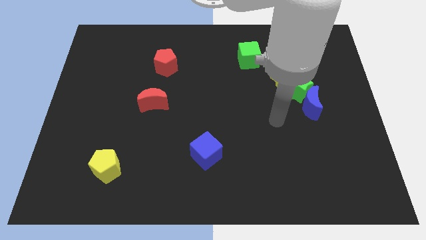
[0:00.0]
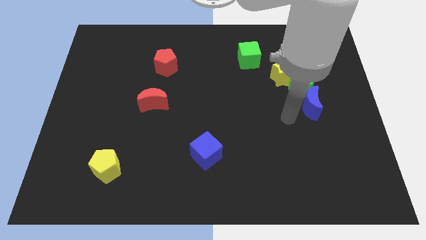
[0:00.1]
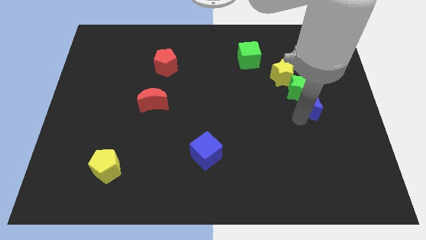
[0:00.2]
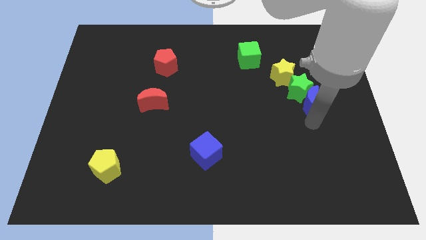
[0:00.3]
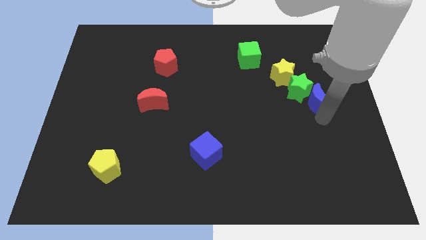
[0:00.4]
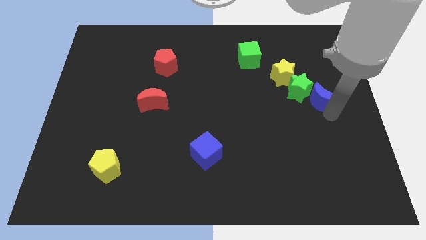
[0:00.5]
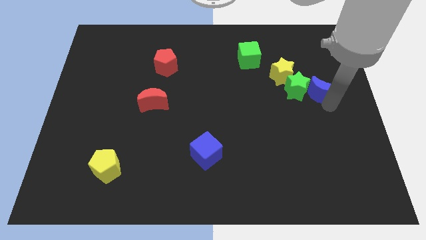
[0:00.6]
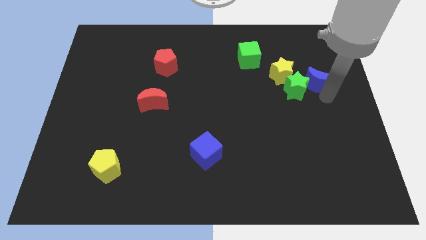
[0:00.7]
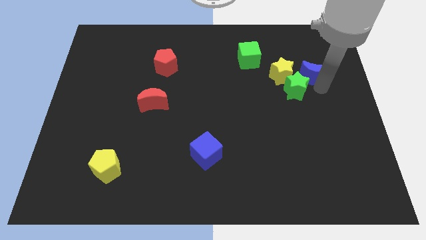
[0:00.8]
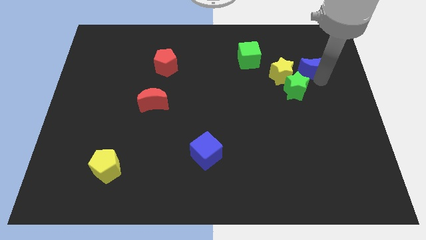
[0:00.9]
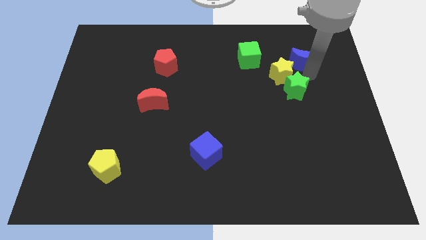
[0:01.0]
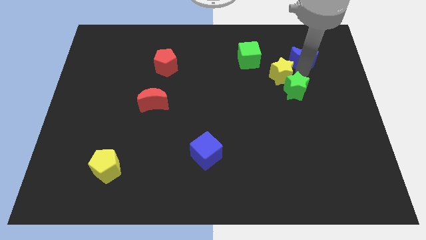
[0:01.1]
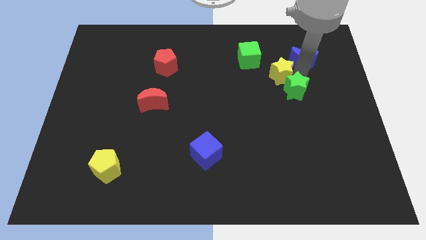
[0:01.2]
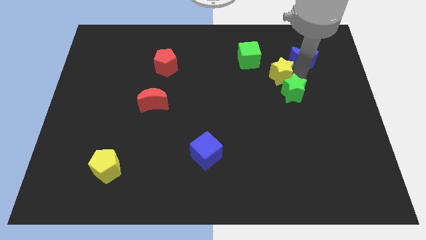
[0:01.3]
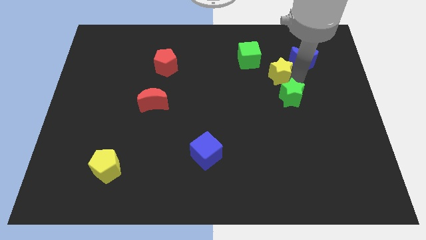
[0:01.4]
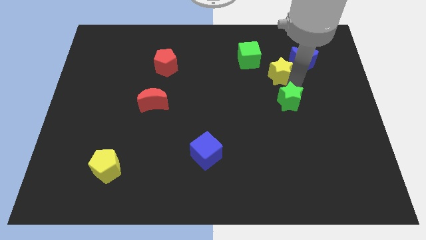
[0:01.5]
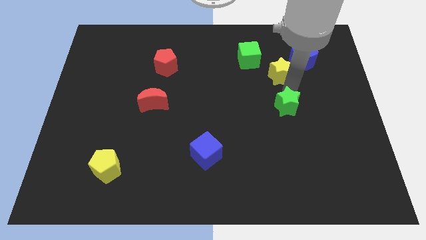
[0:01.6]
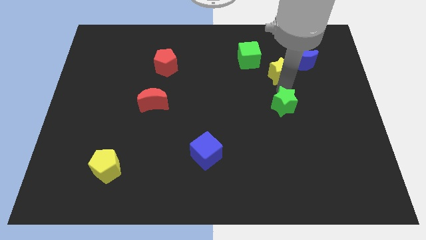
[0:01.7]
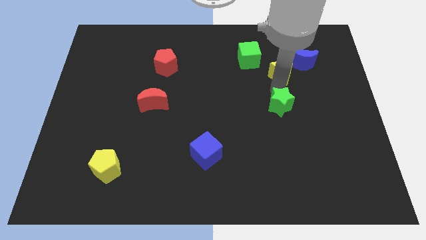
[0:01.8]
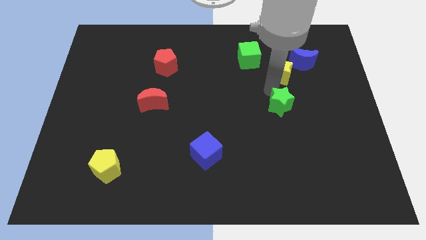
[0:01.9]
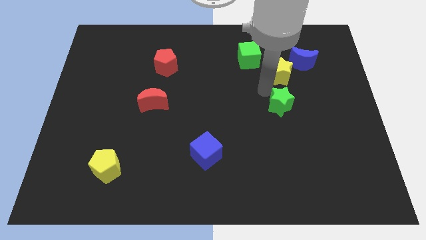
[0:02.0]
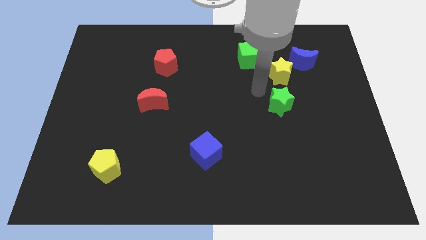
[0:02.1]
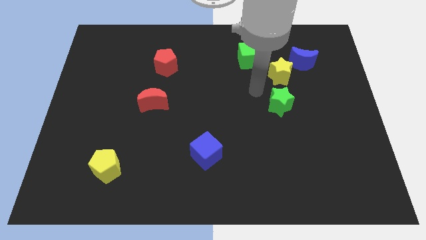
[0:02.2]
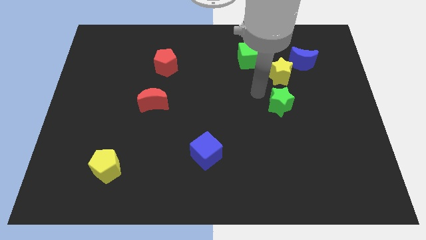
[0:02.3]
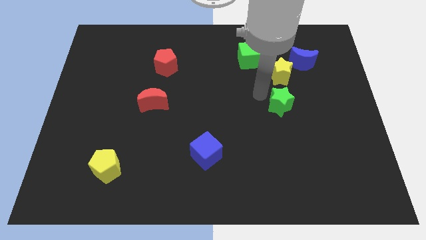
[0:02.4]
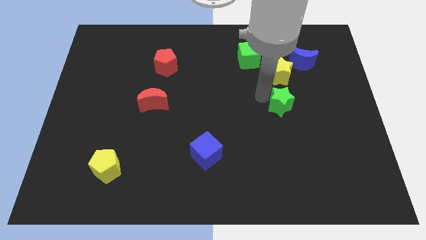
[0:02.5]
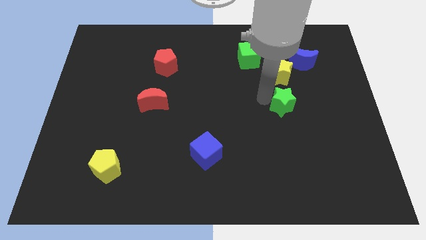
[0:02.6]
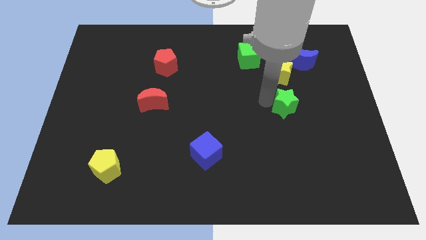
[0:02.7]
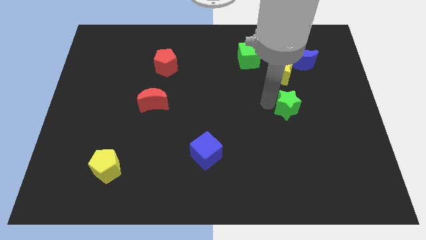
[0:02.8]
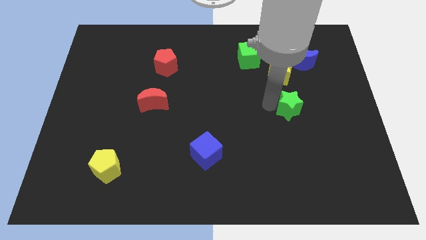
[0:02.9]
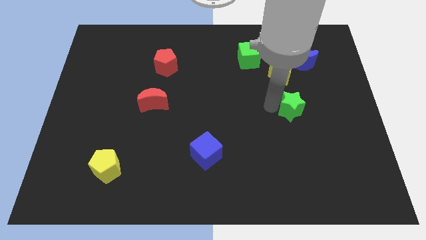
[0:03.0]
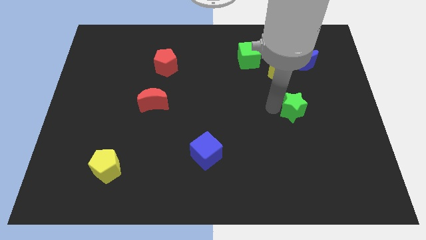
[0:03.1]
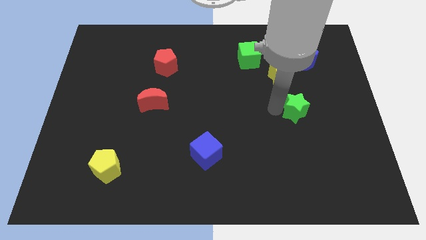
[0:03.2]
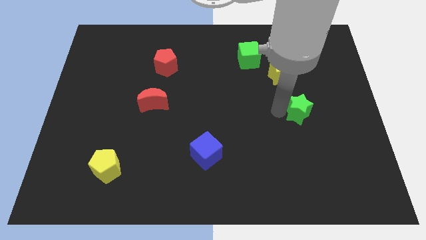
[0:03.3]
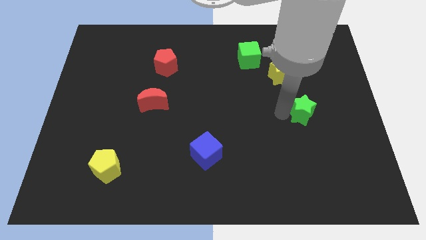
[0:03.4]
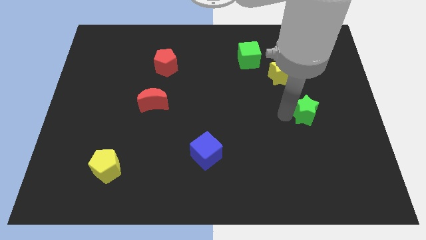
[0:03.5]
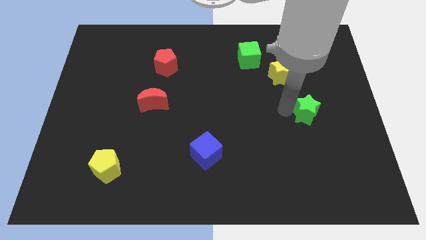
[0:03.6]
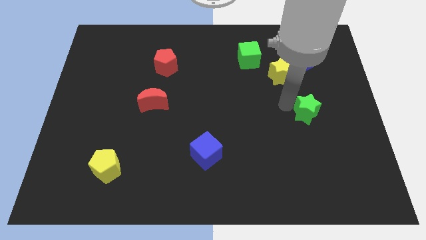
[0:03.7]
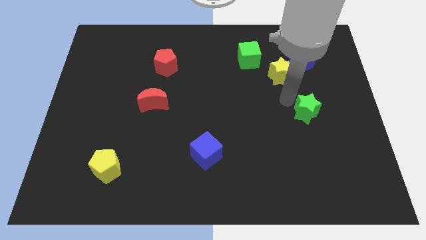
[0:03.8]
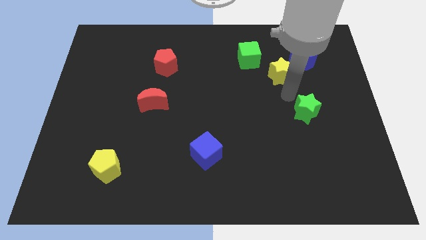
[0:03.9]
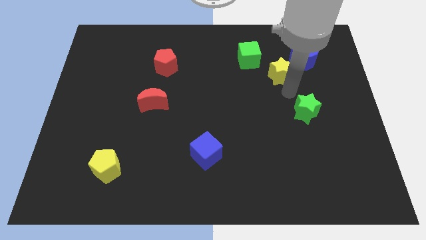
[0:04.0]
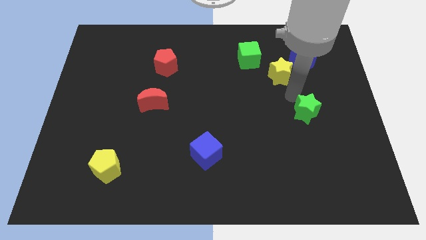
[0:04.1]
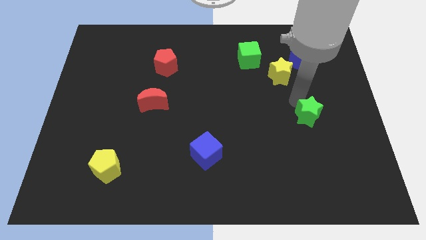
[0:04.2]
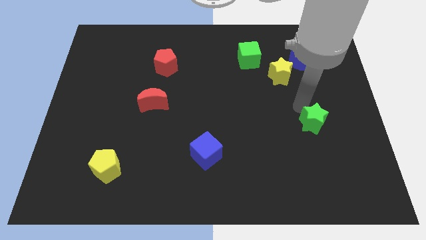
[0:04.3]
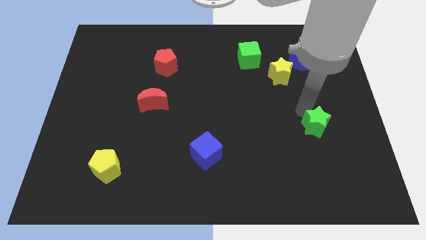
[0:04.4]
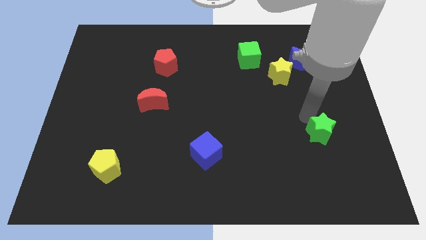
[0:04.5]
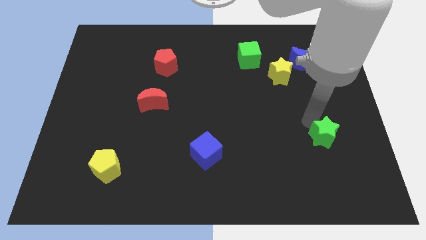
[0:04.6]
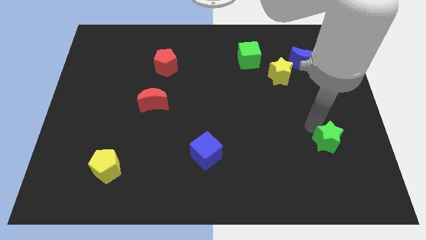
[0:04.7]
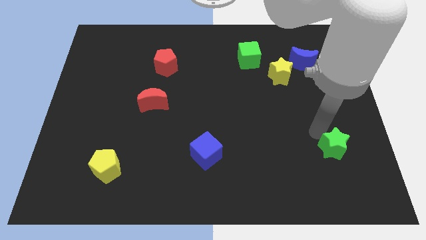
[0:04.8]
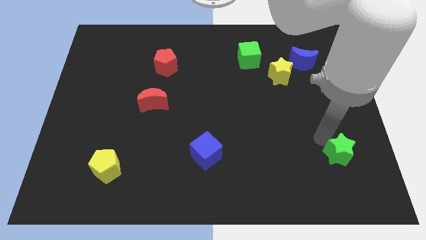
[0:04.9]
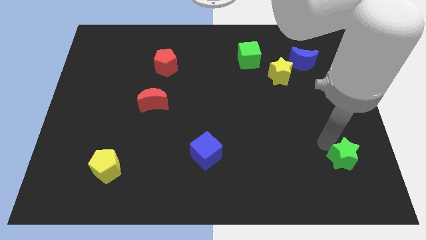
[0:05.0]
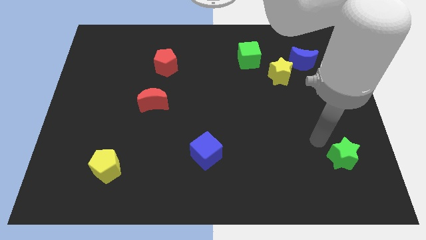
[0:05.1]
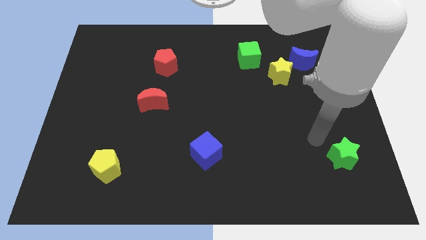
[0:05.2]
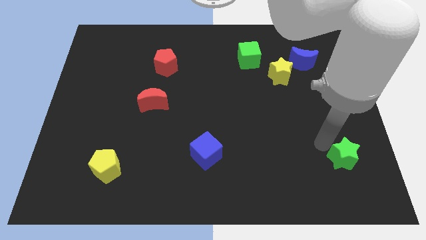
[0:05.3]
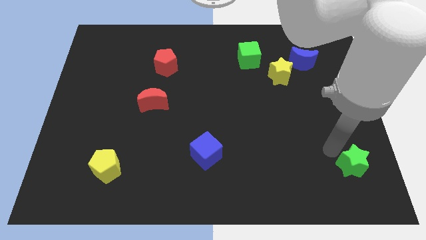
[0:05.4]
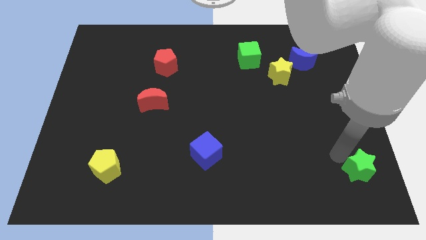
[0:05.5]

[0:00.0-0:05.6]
move the green star to the bottom right

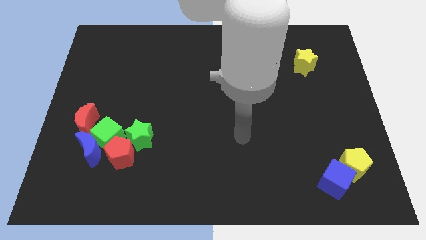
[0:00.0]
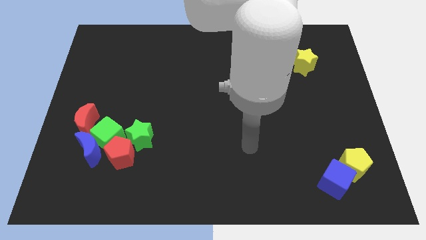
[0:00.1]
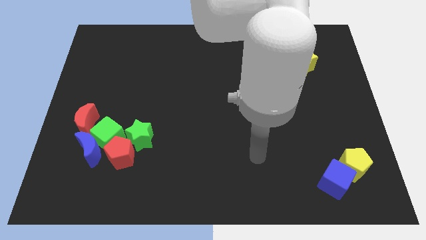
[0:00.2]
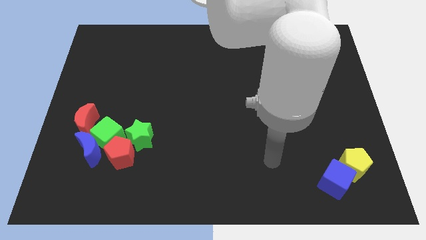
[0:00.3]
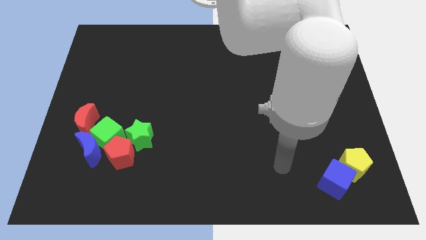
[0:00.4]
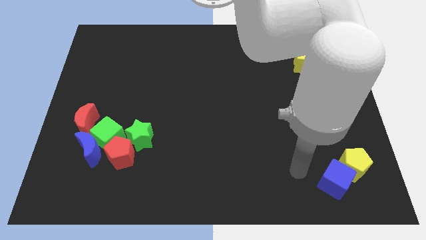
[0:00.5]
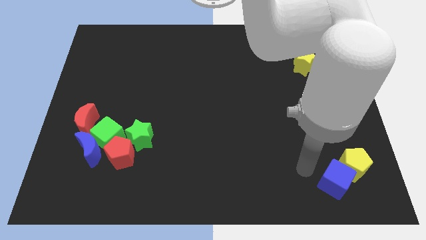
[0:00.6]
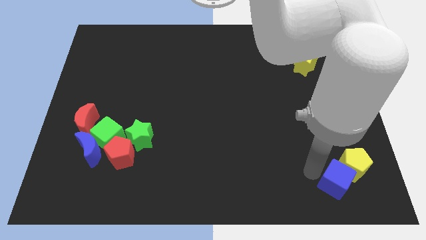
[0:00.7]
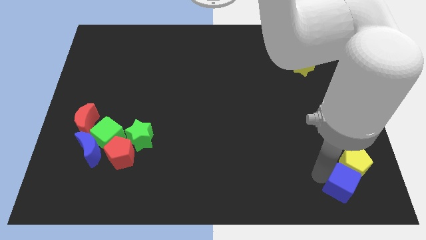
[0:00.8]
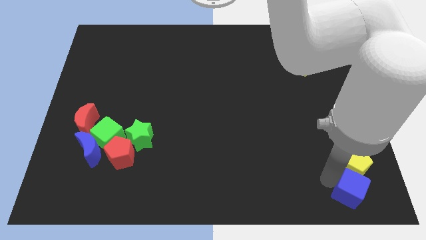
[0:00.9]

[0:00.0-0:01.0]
slide the blue cube to the bottom right of the board
